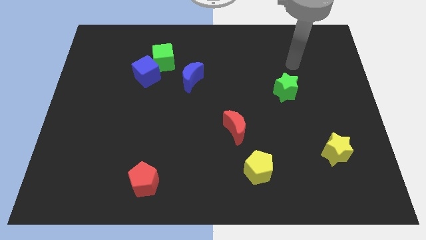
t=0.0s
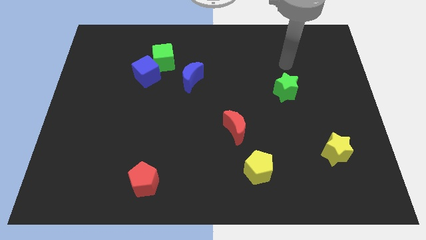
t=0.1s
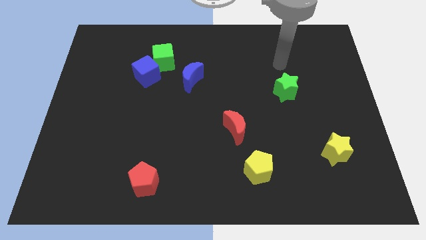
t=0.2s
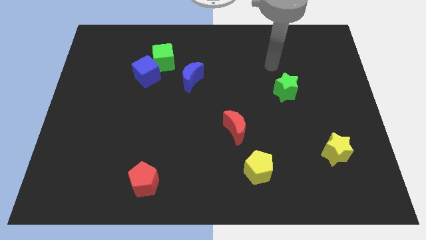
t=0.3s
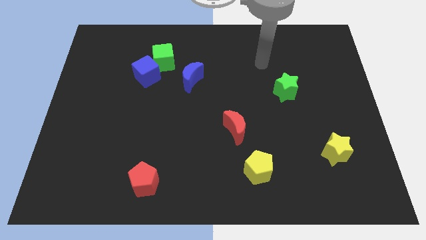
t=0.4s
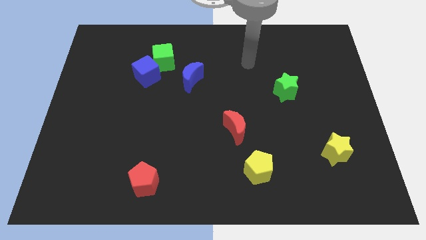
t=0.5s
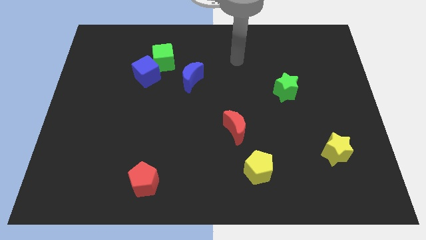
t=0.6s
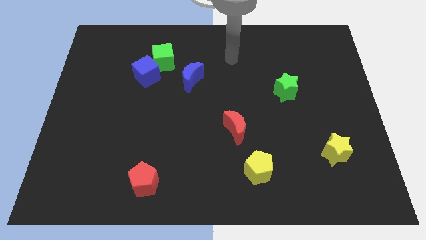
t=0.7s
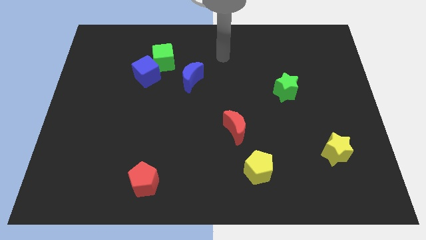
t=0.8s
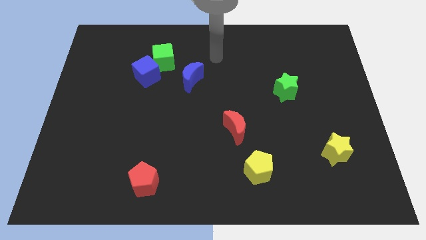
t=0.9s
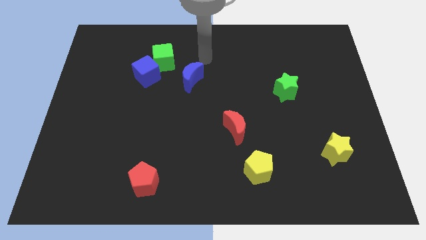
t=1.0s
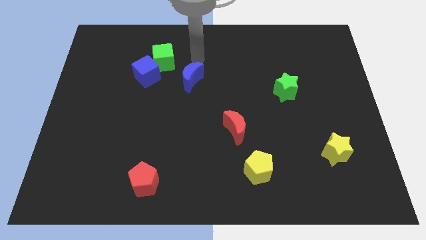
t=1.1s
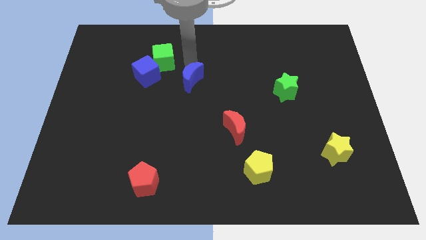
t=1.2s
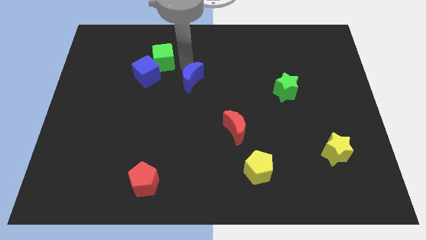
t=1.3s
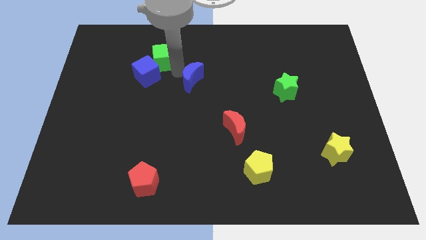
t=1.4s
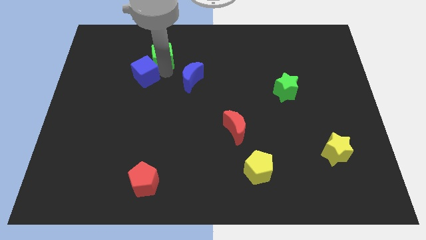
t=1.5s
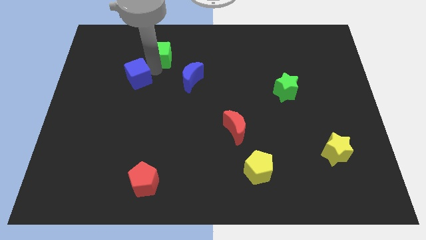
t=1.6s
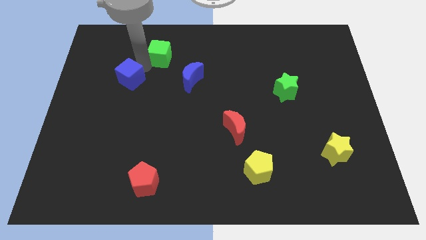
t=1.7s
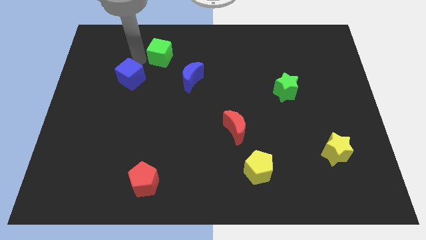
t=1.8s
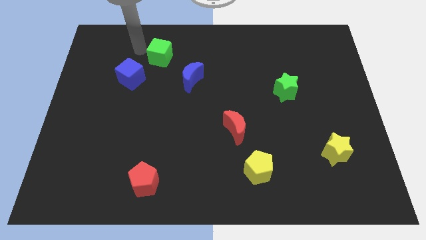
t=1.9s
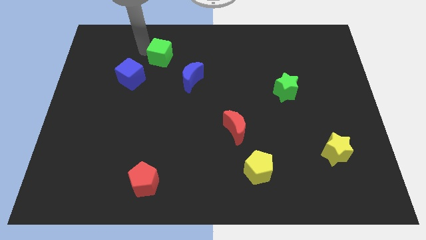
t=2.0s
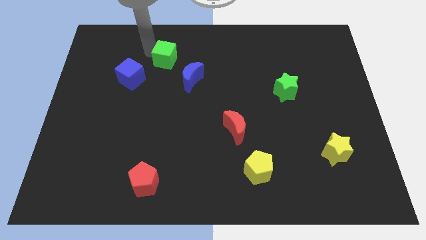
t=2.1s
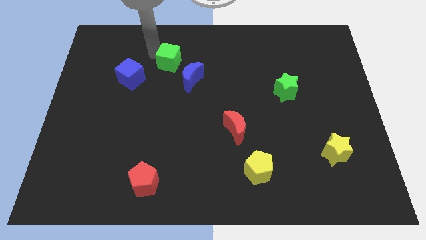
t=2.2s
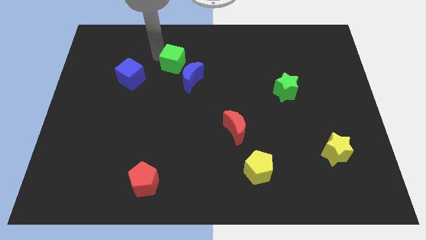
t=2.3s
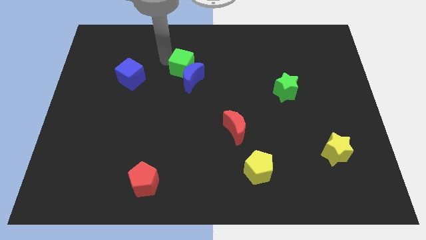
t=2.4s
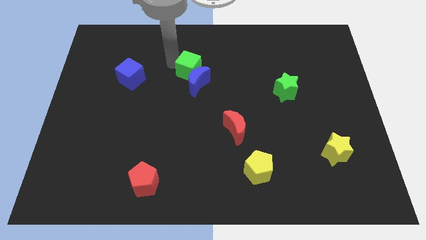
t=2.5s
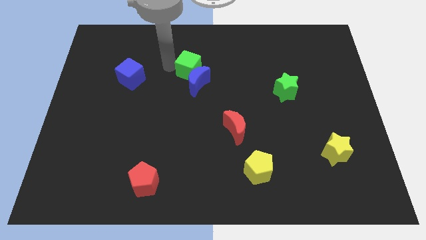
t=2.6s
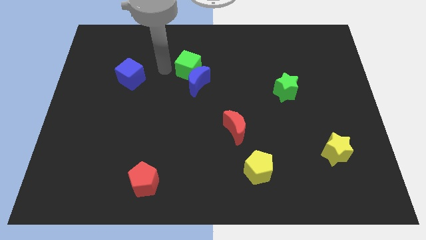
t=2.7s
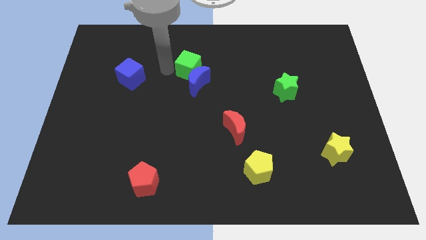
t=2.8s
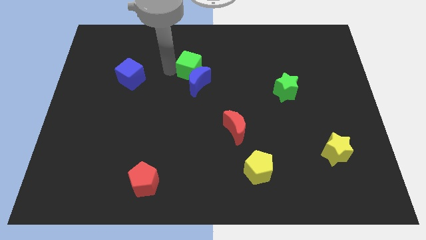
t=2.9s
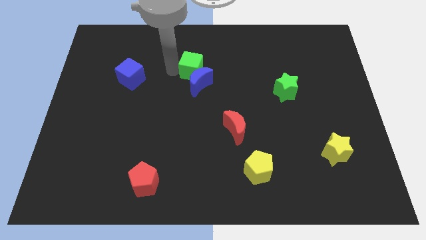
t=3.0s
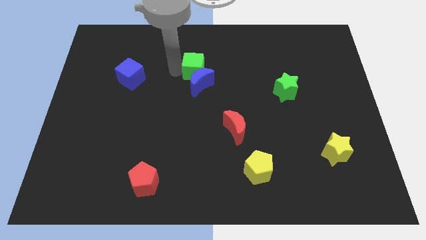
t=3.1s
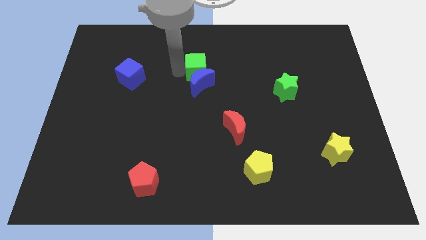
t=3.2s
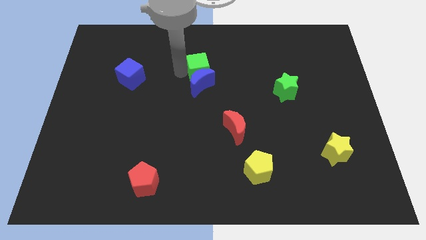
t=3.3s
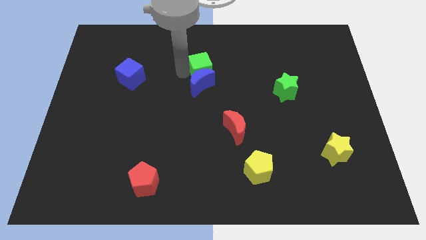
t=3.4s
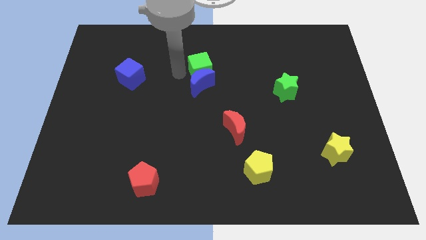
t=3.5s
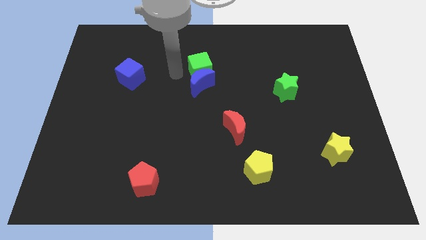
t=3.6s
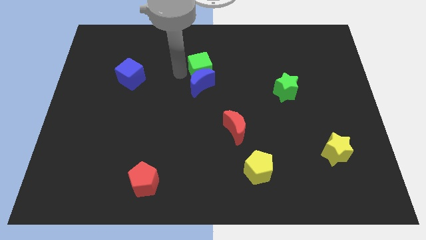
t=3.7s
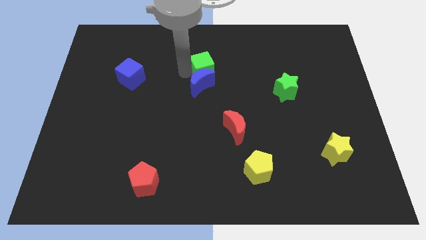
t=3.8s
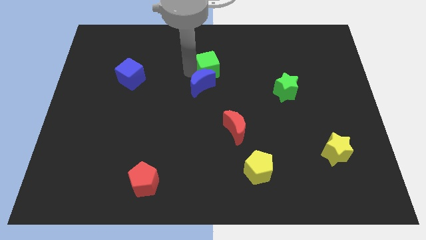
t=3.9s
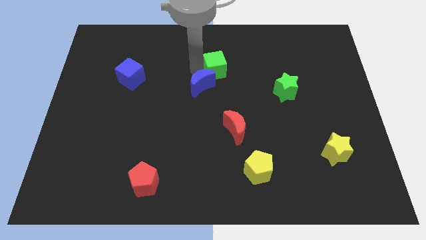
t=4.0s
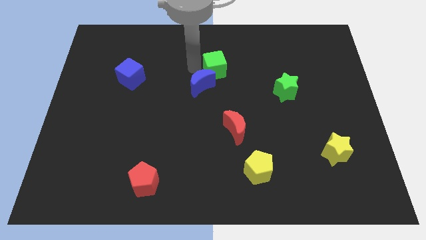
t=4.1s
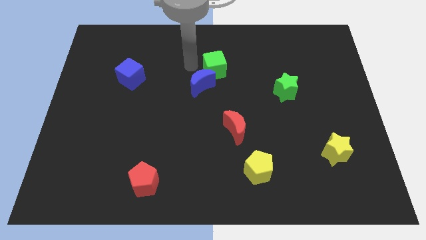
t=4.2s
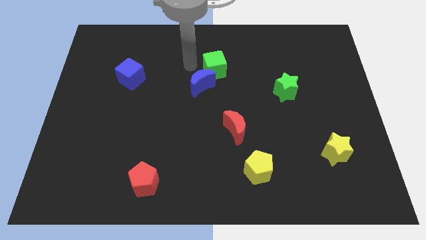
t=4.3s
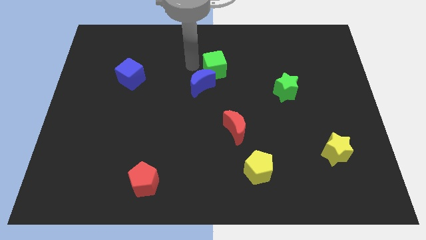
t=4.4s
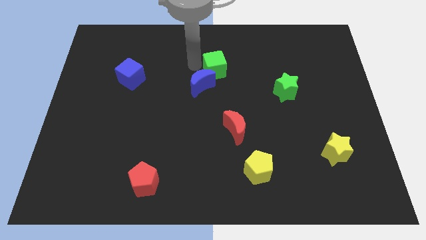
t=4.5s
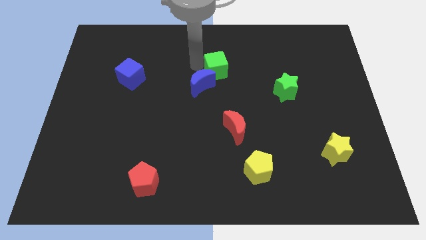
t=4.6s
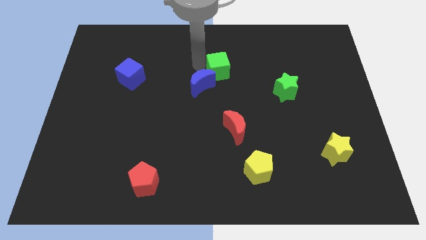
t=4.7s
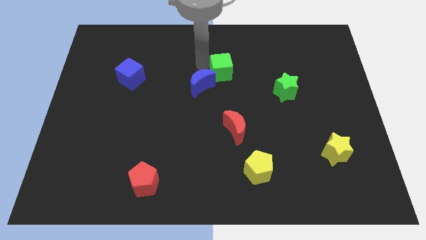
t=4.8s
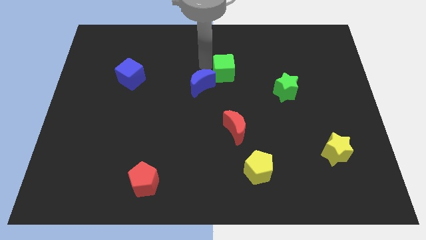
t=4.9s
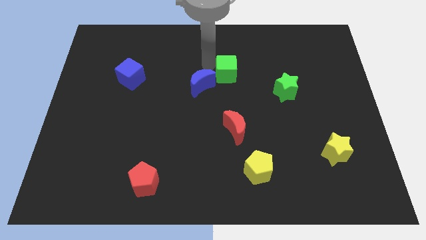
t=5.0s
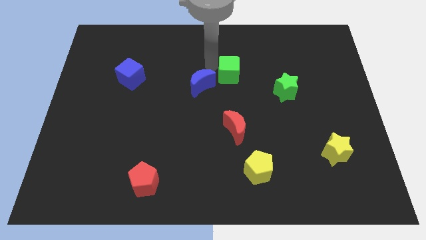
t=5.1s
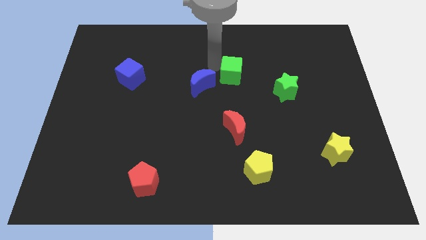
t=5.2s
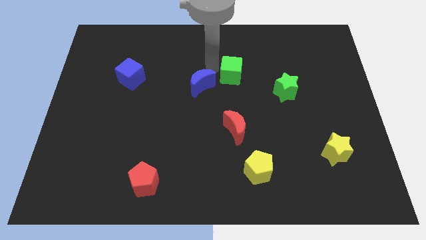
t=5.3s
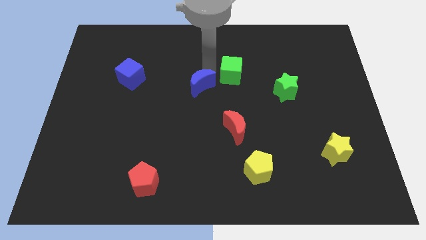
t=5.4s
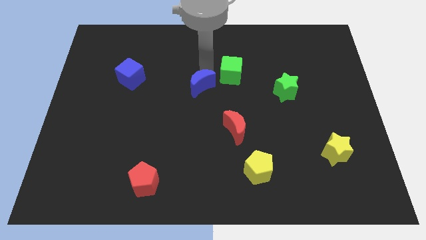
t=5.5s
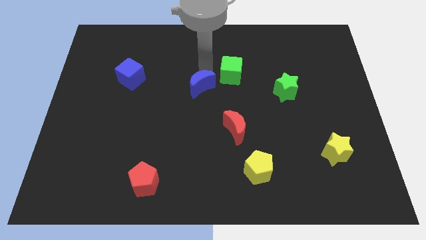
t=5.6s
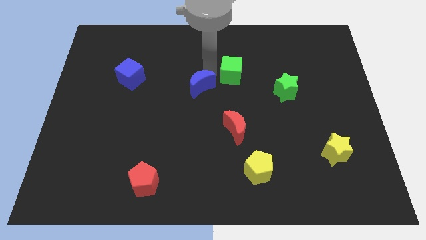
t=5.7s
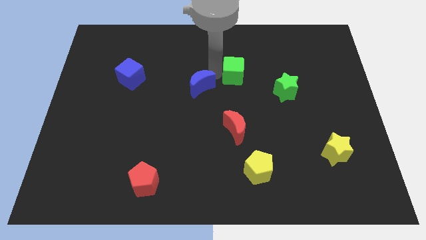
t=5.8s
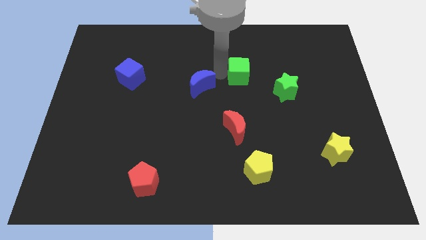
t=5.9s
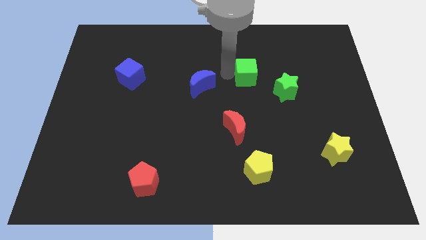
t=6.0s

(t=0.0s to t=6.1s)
move the green cube diagonally up and to the left of the green star

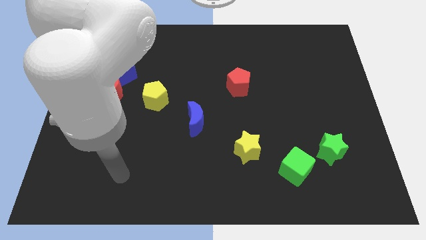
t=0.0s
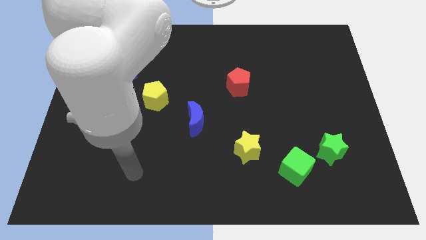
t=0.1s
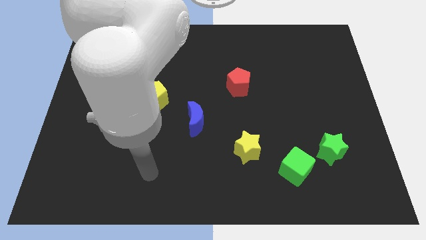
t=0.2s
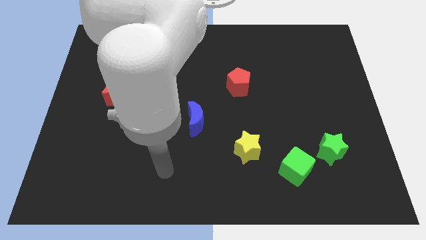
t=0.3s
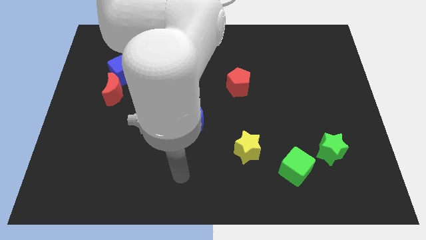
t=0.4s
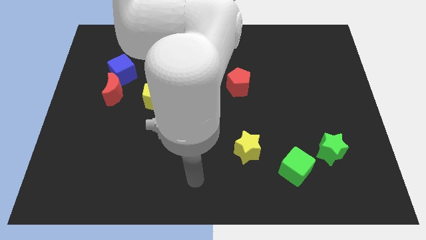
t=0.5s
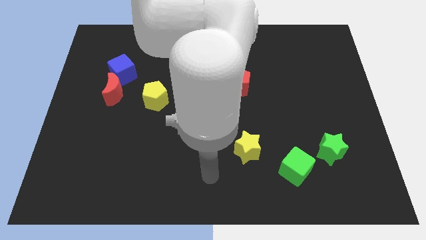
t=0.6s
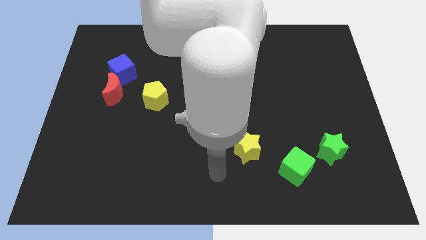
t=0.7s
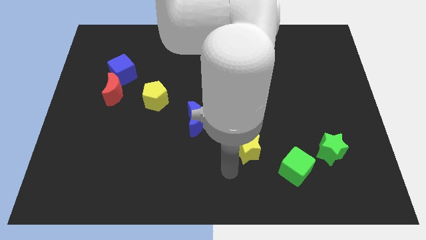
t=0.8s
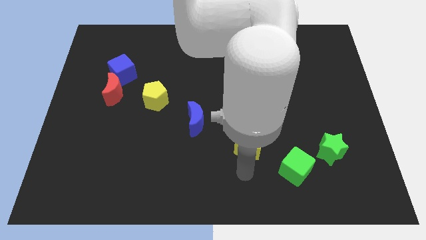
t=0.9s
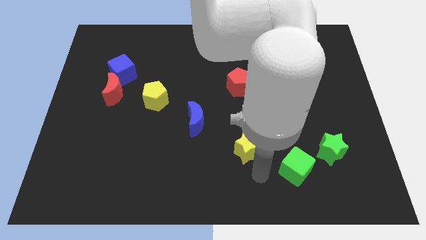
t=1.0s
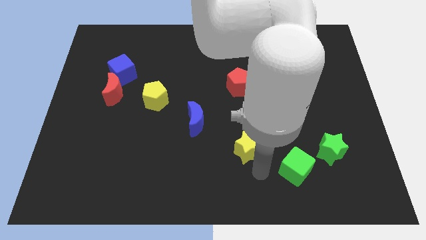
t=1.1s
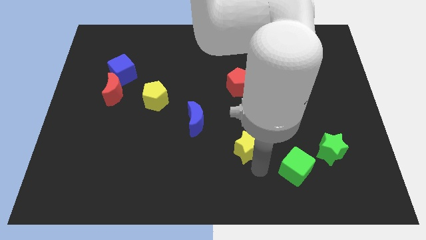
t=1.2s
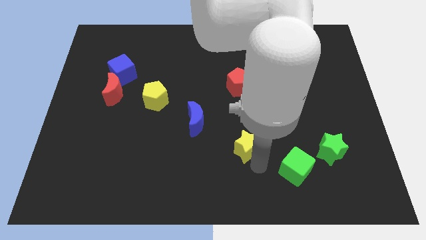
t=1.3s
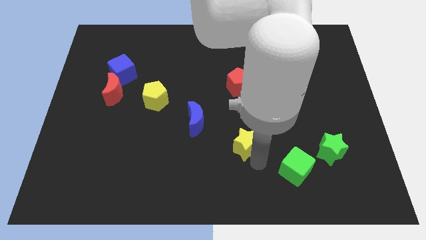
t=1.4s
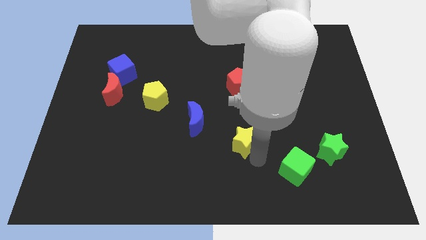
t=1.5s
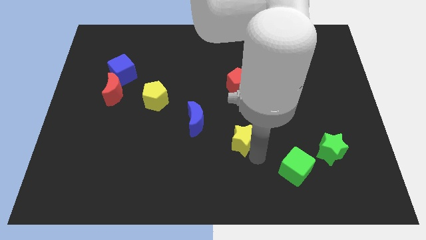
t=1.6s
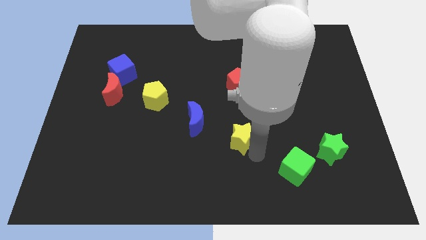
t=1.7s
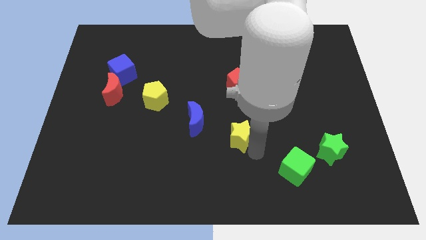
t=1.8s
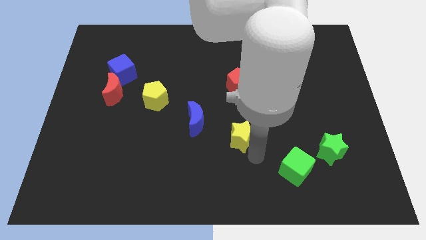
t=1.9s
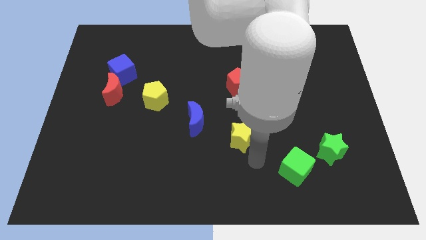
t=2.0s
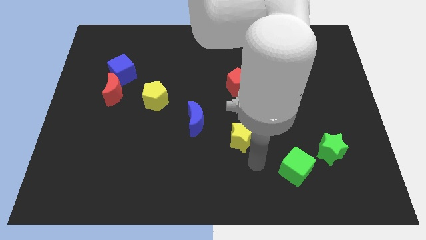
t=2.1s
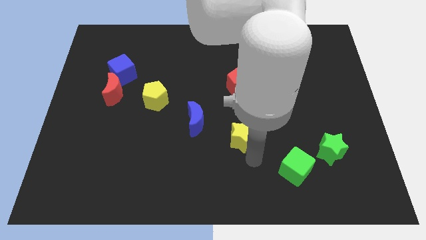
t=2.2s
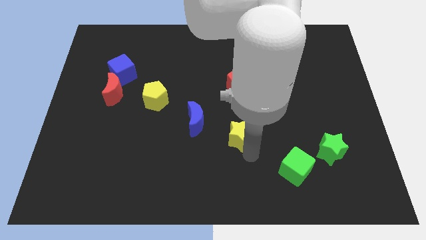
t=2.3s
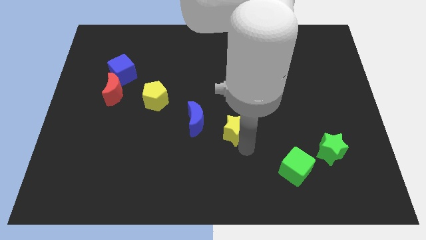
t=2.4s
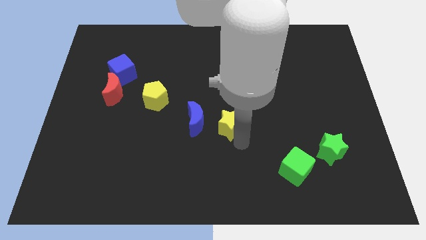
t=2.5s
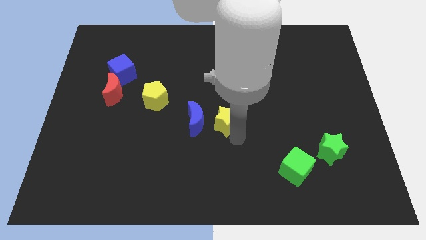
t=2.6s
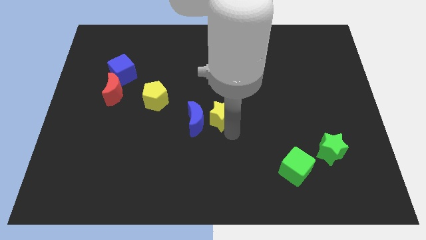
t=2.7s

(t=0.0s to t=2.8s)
move the yellow star to the bottom left of the red pentagon
